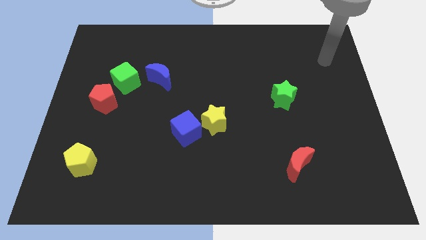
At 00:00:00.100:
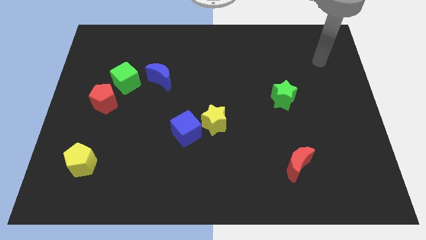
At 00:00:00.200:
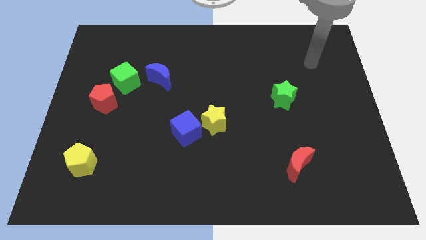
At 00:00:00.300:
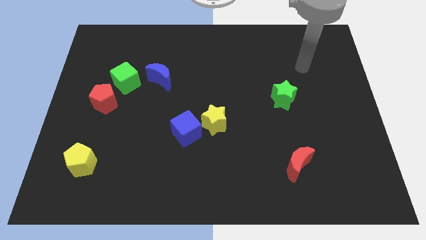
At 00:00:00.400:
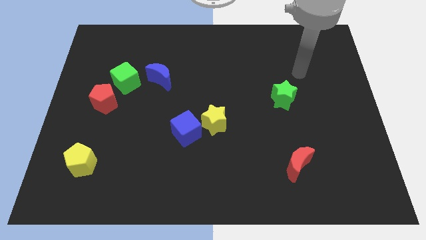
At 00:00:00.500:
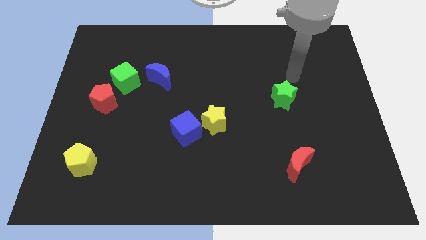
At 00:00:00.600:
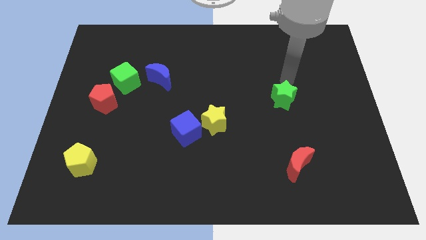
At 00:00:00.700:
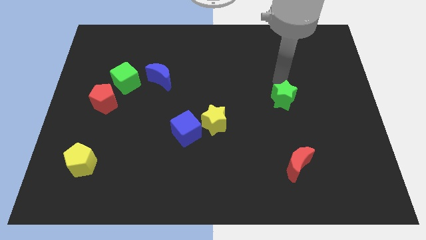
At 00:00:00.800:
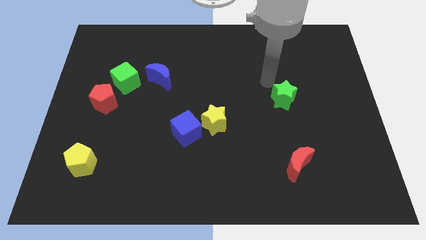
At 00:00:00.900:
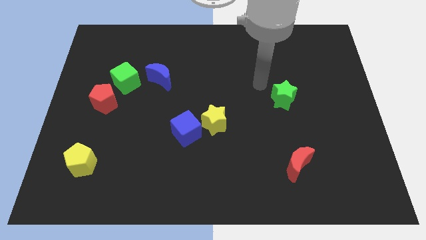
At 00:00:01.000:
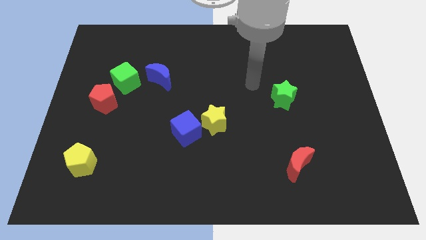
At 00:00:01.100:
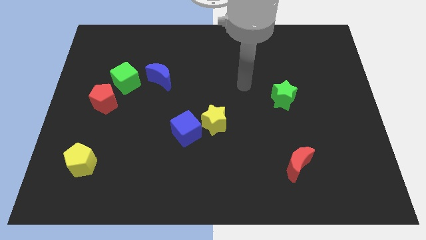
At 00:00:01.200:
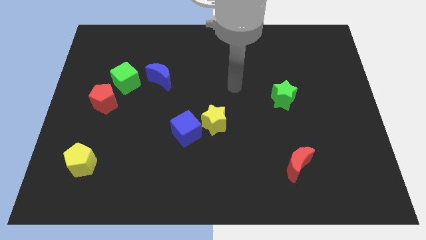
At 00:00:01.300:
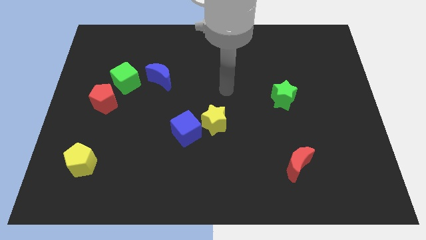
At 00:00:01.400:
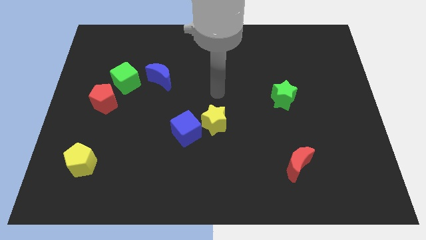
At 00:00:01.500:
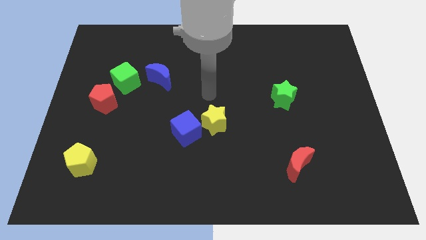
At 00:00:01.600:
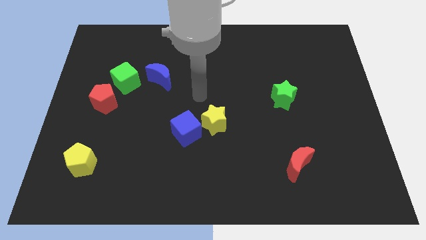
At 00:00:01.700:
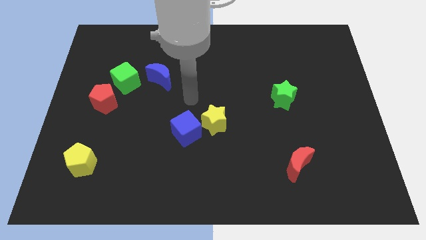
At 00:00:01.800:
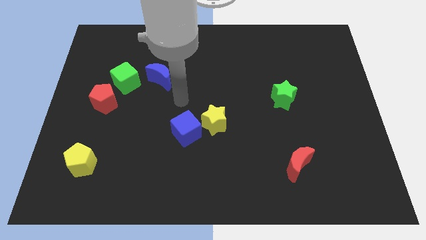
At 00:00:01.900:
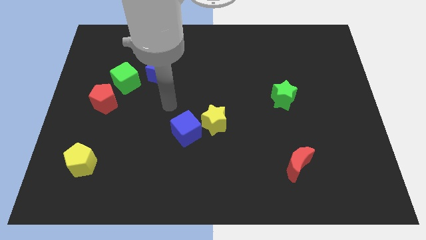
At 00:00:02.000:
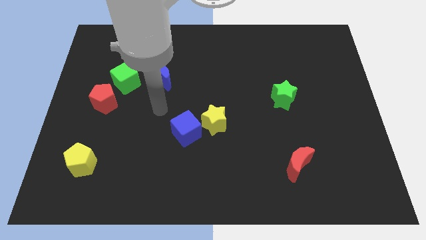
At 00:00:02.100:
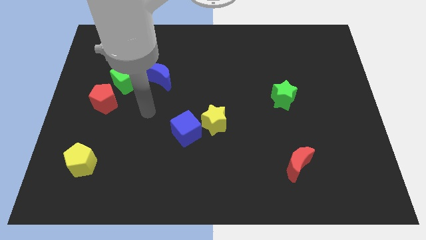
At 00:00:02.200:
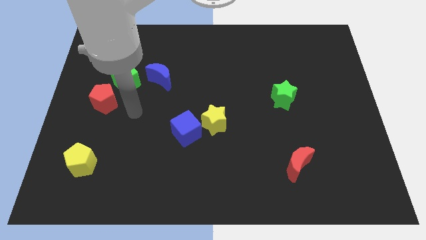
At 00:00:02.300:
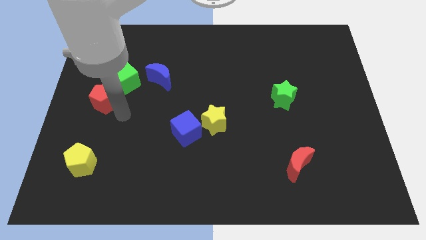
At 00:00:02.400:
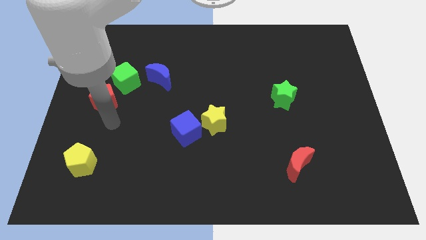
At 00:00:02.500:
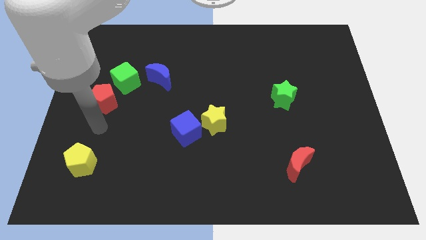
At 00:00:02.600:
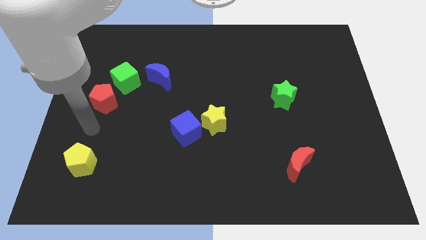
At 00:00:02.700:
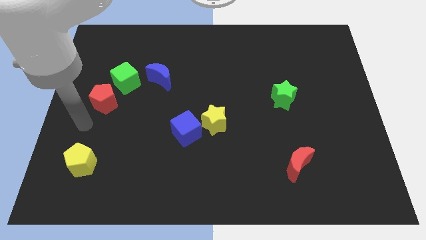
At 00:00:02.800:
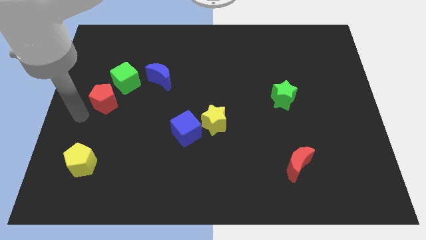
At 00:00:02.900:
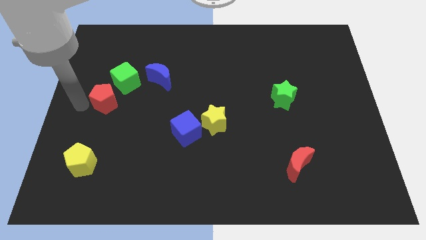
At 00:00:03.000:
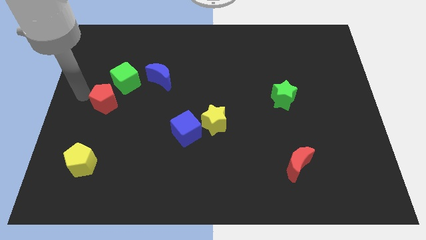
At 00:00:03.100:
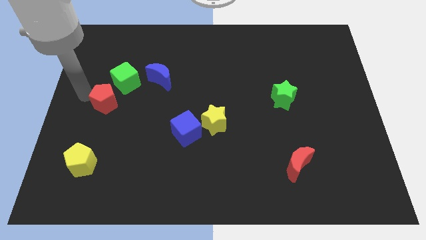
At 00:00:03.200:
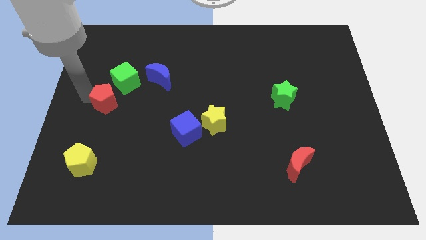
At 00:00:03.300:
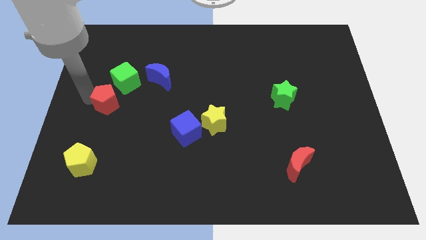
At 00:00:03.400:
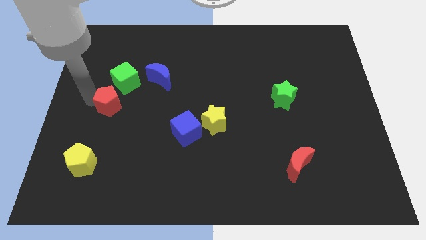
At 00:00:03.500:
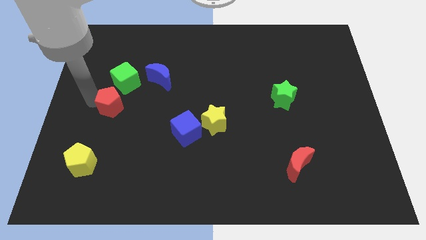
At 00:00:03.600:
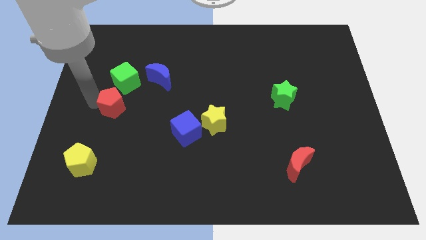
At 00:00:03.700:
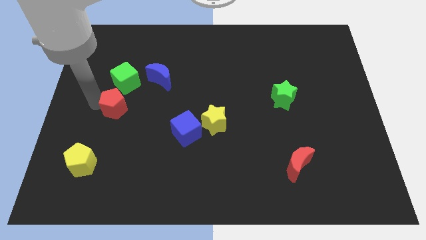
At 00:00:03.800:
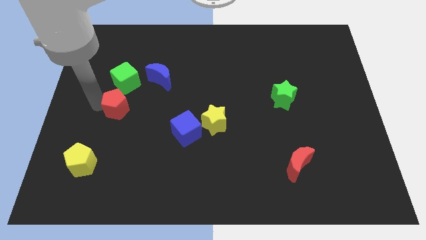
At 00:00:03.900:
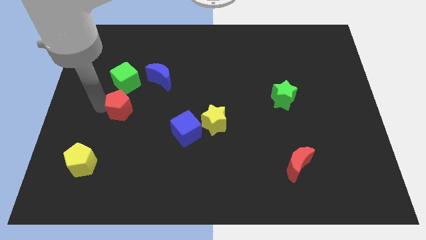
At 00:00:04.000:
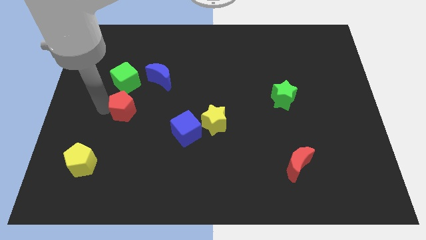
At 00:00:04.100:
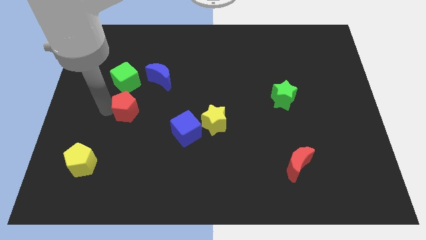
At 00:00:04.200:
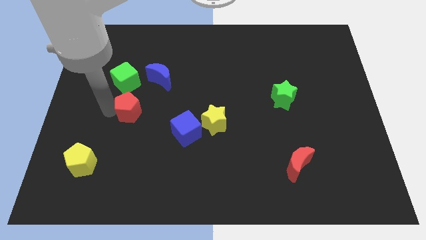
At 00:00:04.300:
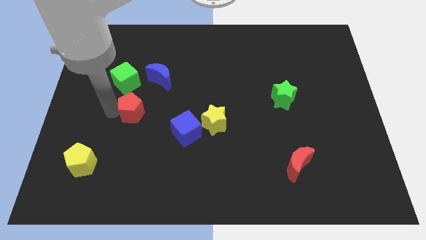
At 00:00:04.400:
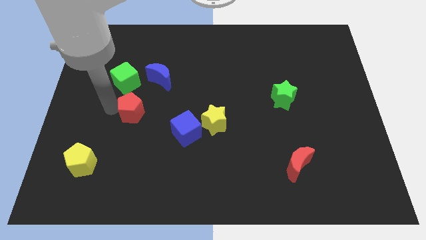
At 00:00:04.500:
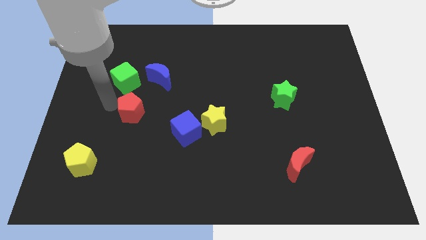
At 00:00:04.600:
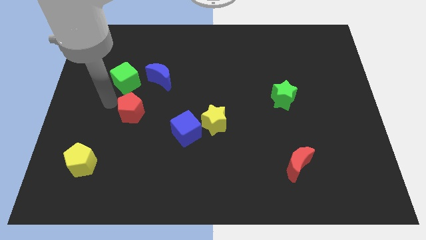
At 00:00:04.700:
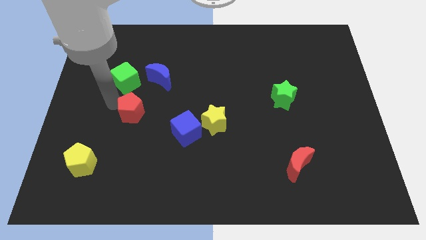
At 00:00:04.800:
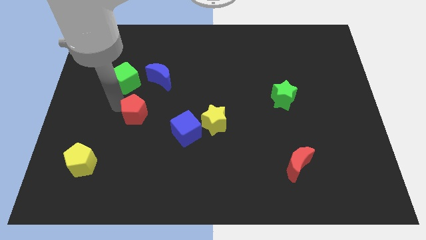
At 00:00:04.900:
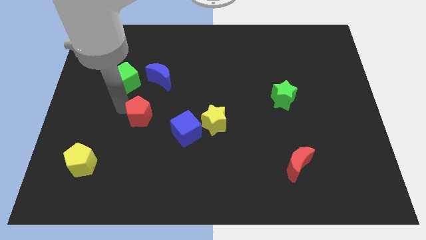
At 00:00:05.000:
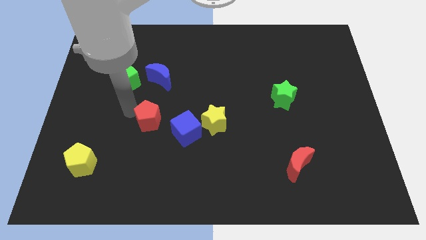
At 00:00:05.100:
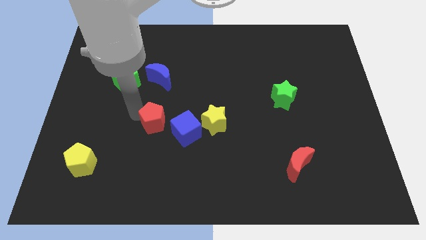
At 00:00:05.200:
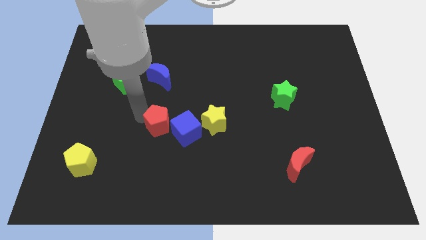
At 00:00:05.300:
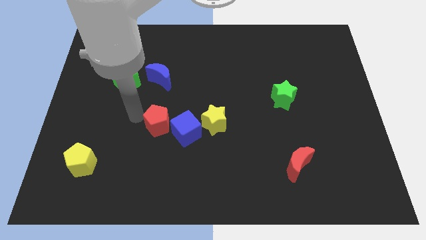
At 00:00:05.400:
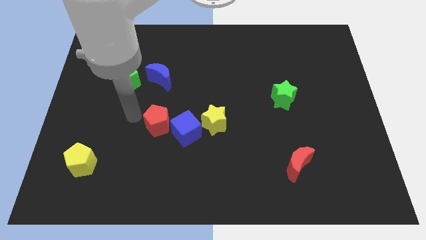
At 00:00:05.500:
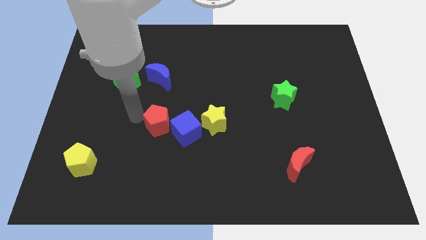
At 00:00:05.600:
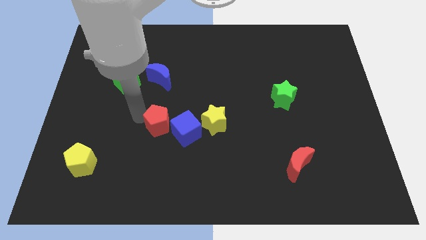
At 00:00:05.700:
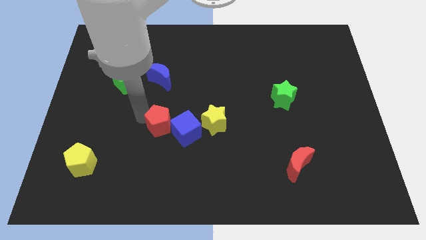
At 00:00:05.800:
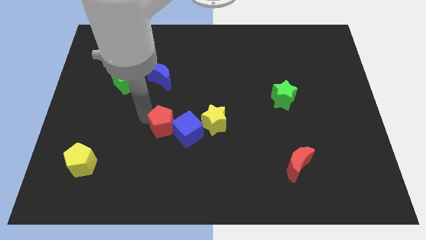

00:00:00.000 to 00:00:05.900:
move the red pentagon next to the blue cube

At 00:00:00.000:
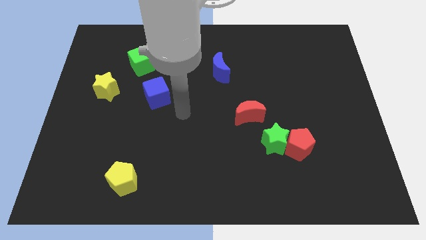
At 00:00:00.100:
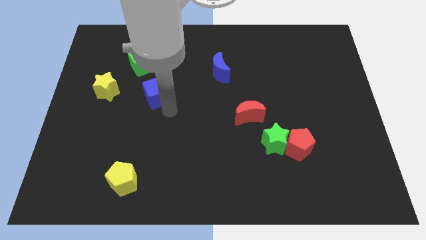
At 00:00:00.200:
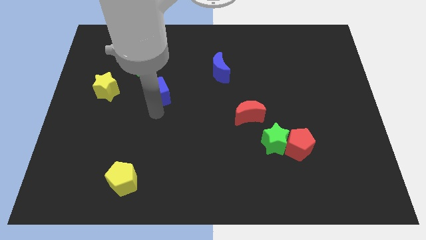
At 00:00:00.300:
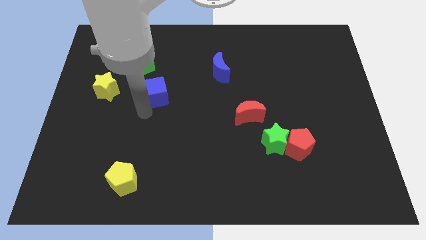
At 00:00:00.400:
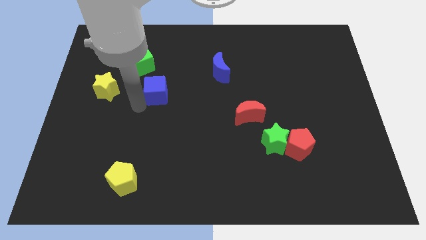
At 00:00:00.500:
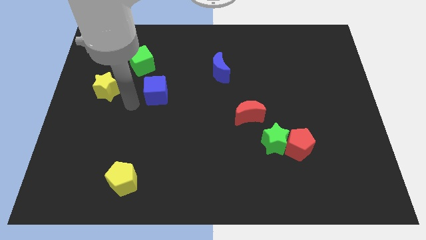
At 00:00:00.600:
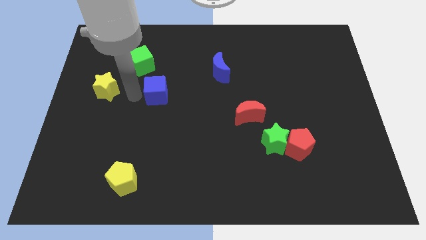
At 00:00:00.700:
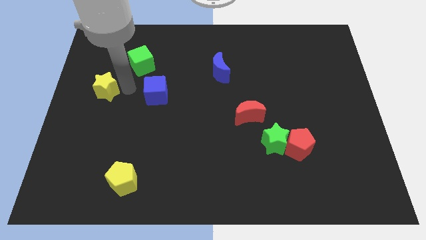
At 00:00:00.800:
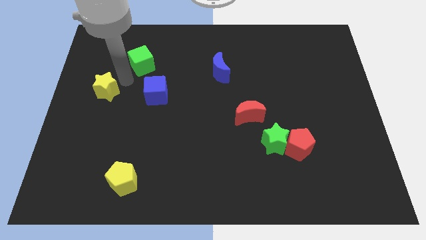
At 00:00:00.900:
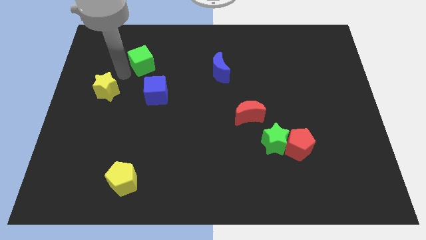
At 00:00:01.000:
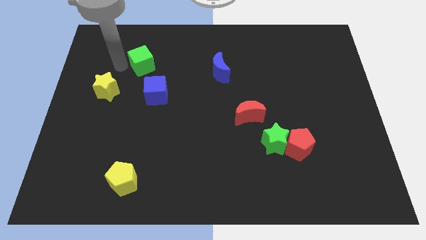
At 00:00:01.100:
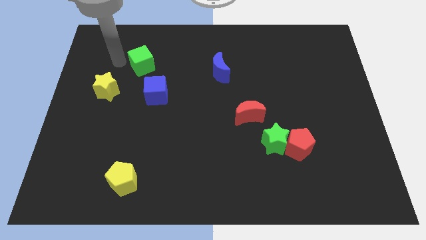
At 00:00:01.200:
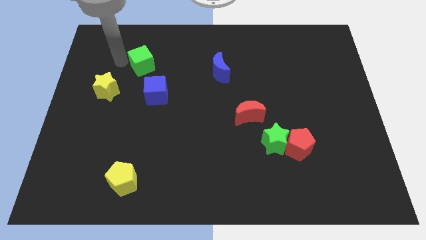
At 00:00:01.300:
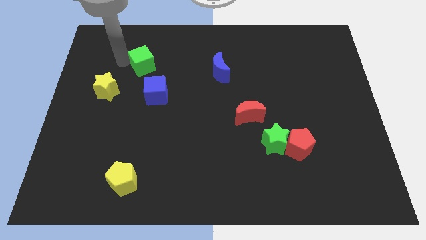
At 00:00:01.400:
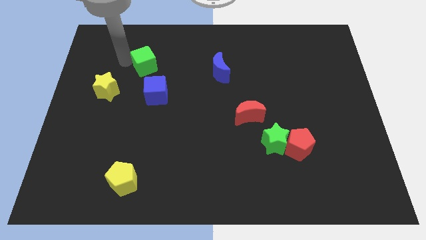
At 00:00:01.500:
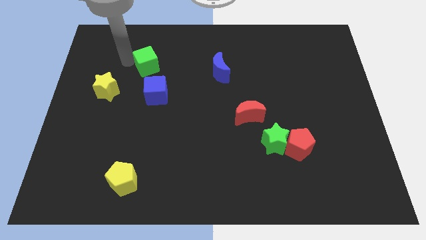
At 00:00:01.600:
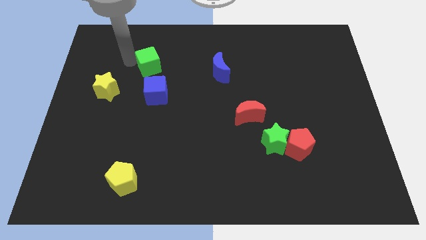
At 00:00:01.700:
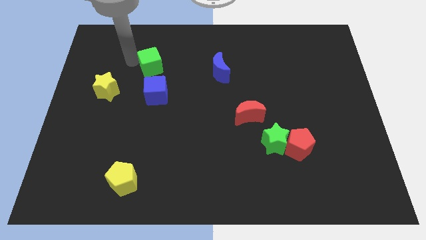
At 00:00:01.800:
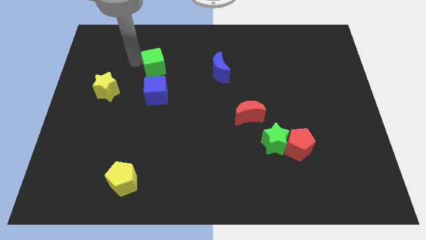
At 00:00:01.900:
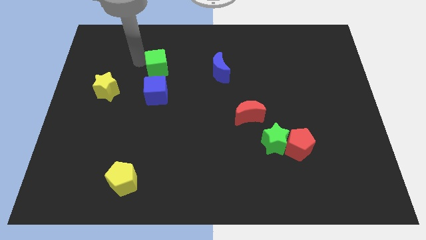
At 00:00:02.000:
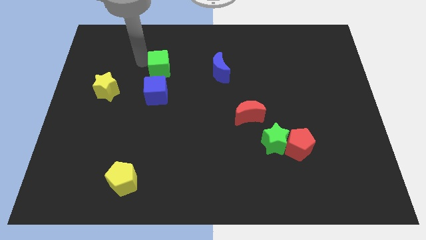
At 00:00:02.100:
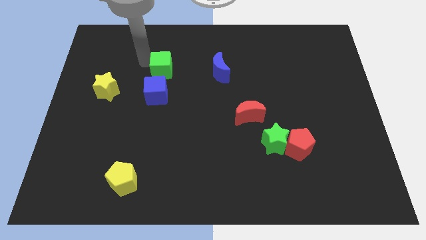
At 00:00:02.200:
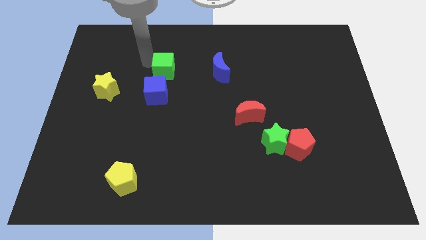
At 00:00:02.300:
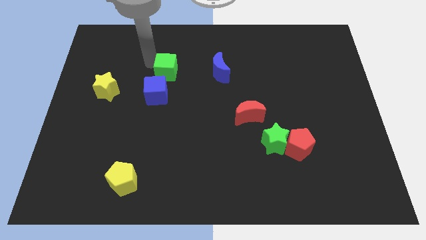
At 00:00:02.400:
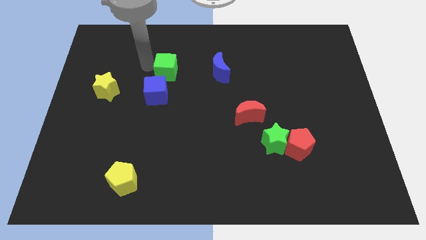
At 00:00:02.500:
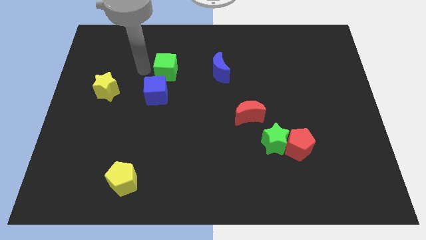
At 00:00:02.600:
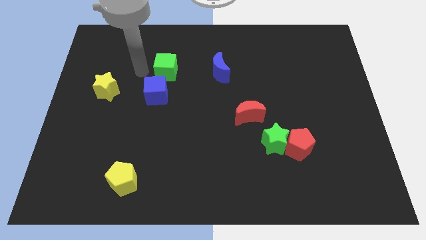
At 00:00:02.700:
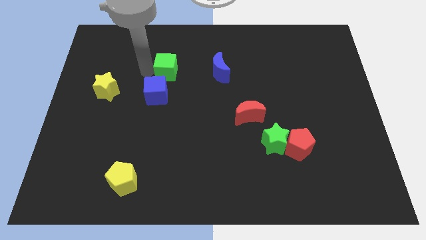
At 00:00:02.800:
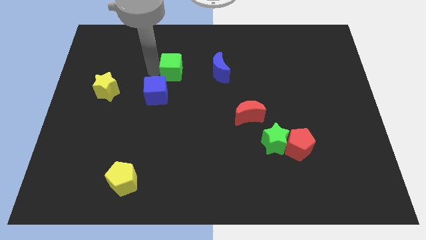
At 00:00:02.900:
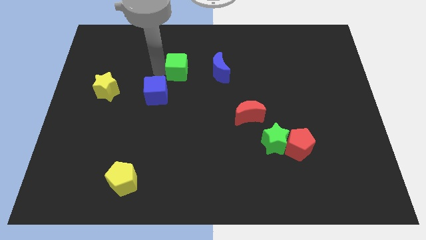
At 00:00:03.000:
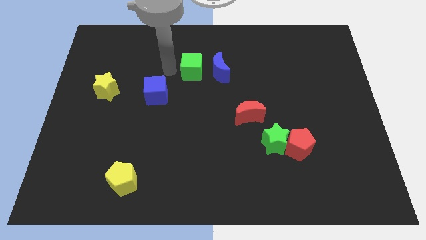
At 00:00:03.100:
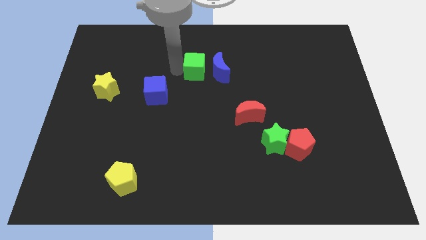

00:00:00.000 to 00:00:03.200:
push the green cube towards the blue moon
